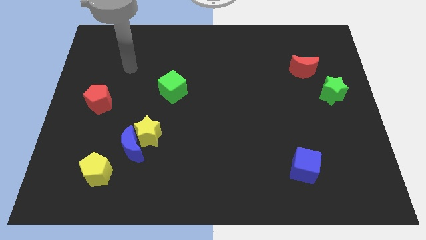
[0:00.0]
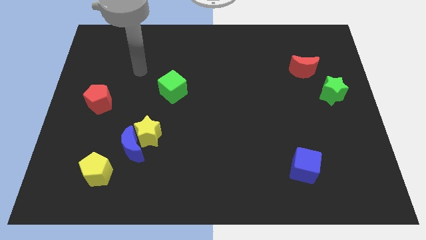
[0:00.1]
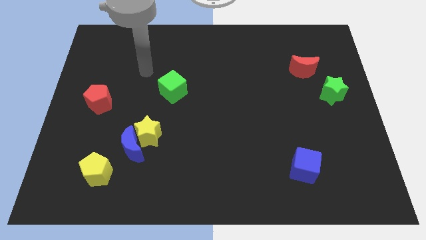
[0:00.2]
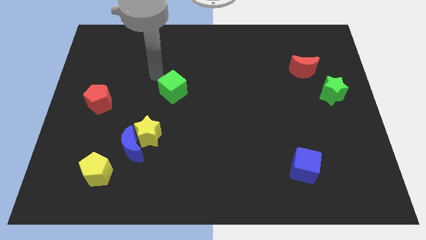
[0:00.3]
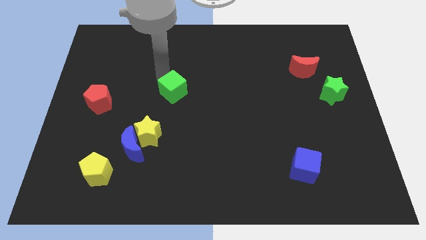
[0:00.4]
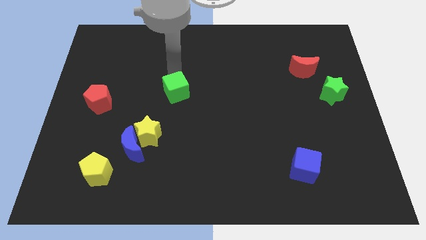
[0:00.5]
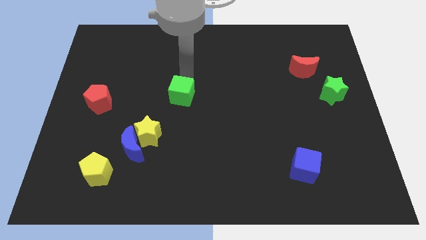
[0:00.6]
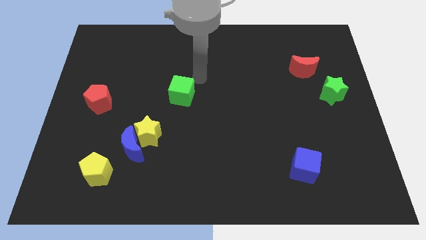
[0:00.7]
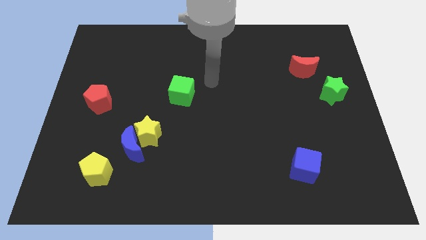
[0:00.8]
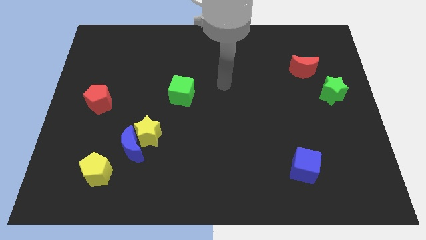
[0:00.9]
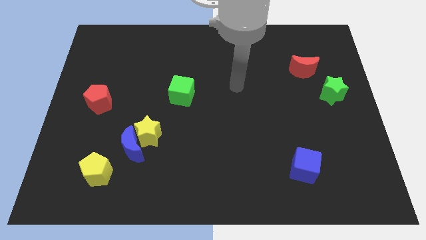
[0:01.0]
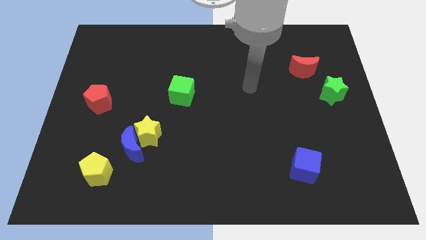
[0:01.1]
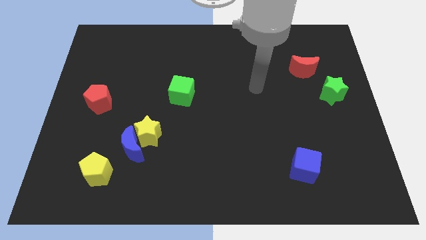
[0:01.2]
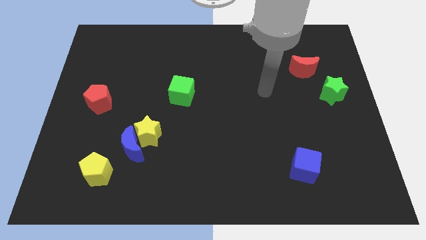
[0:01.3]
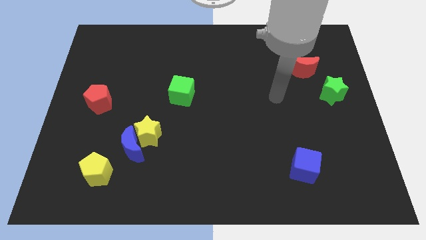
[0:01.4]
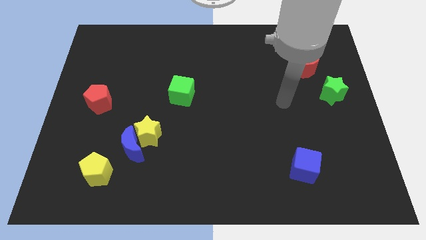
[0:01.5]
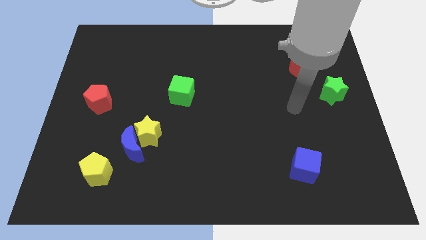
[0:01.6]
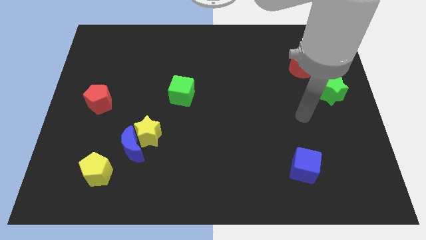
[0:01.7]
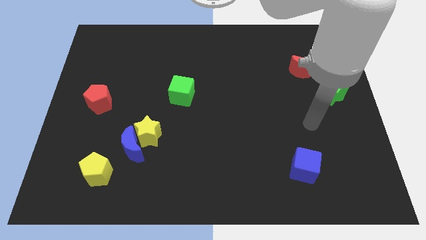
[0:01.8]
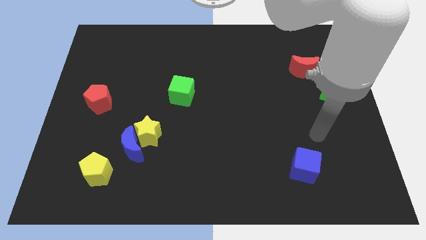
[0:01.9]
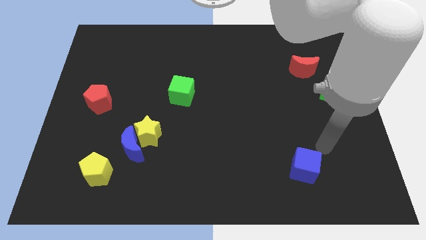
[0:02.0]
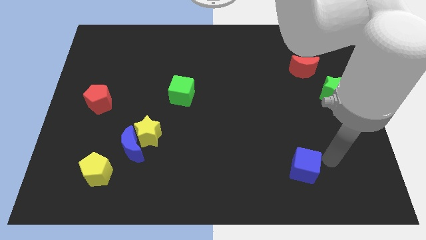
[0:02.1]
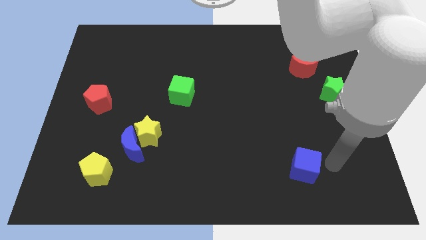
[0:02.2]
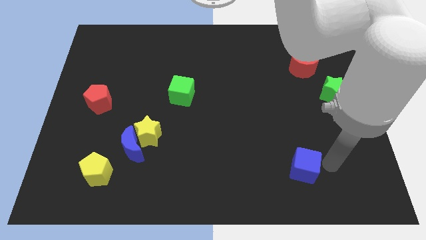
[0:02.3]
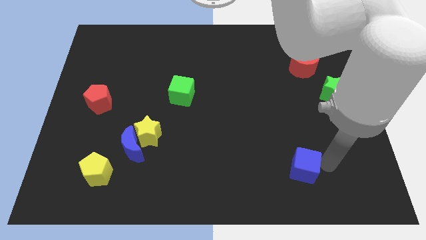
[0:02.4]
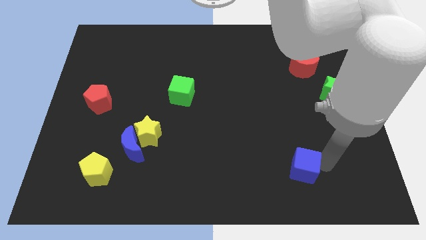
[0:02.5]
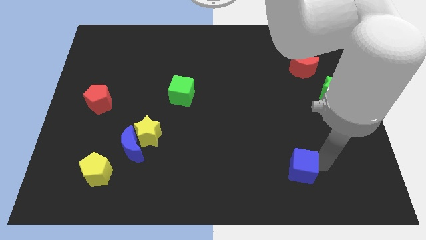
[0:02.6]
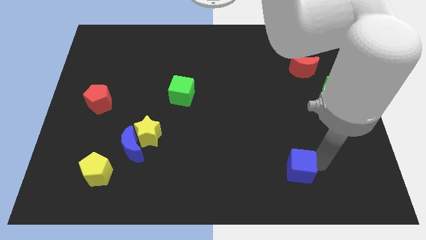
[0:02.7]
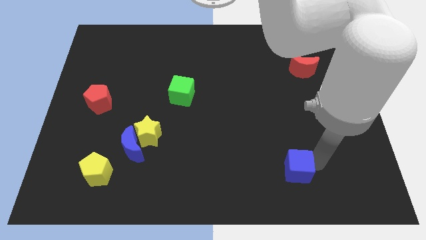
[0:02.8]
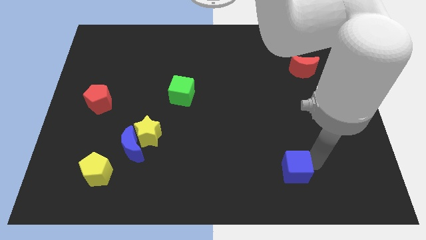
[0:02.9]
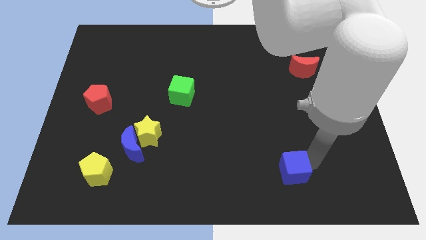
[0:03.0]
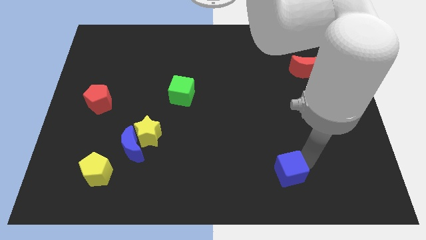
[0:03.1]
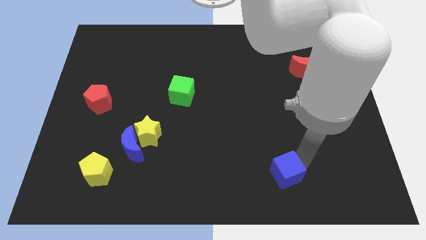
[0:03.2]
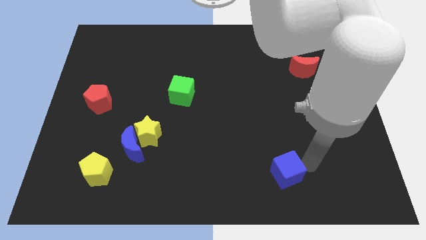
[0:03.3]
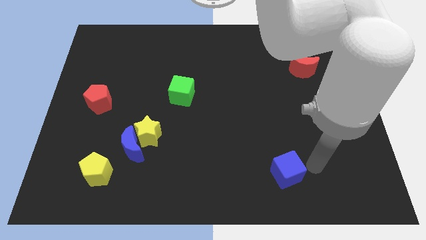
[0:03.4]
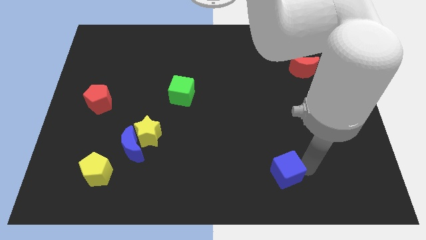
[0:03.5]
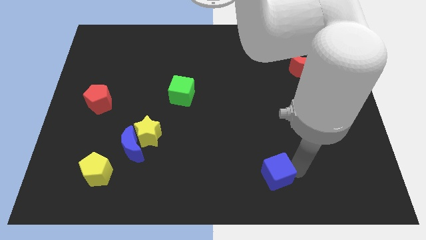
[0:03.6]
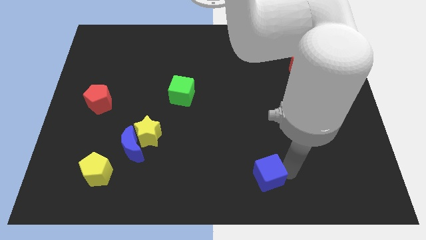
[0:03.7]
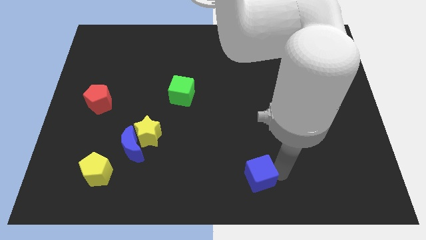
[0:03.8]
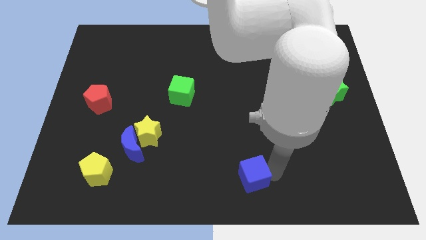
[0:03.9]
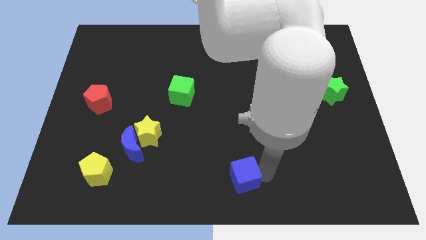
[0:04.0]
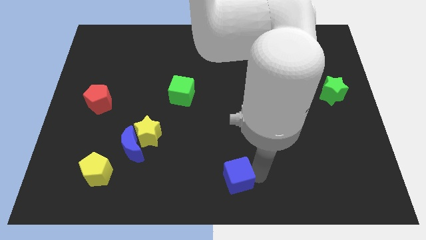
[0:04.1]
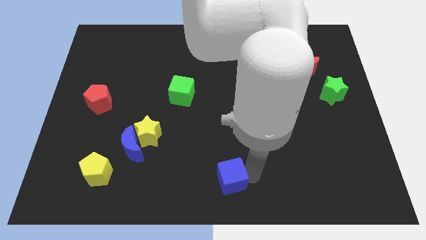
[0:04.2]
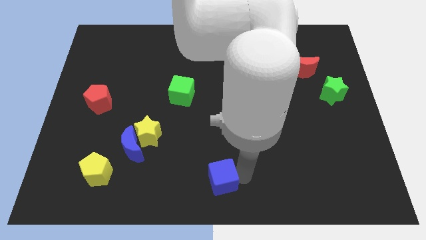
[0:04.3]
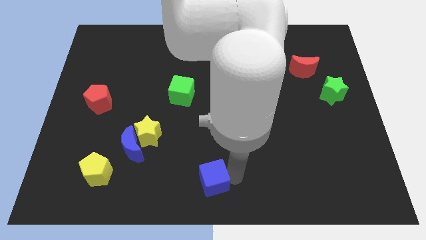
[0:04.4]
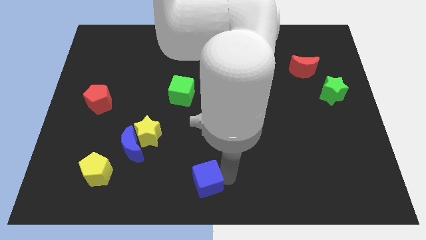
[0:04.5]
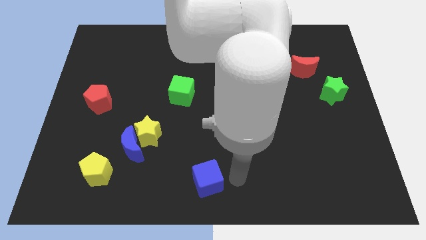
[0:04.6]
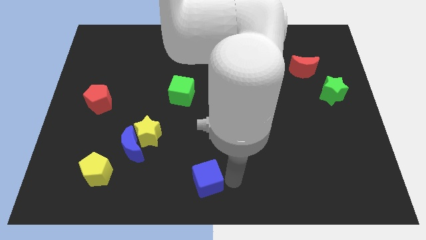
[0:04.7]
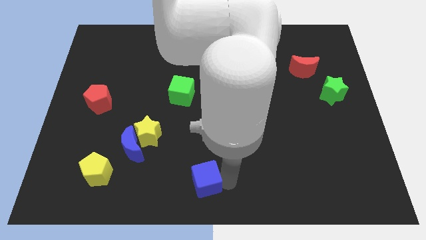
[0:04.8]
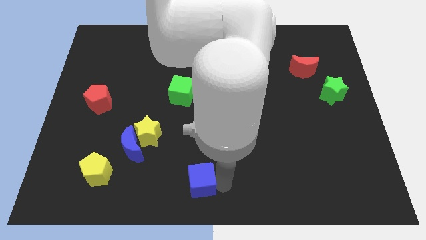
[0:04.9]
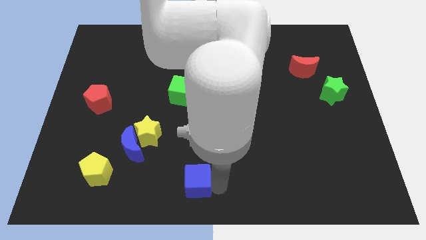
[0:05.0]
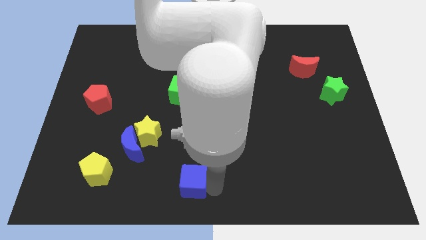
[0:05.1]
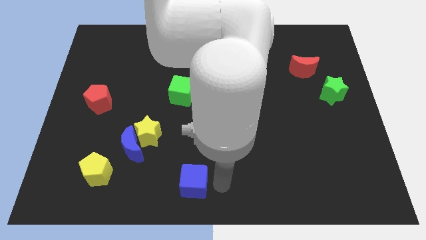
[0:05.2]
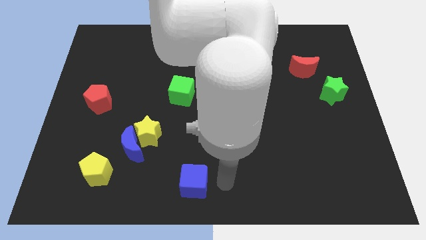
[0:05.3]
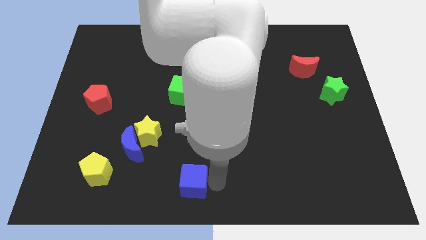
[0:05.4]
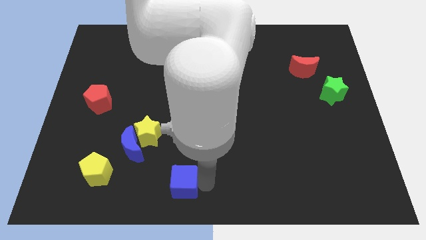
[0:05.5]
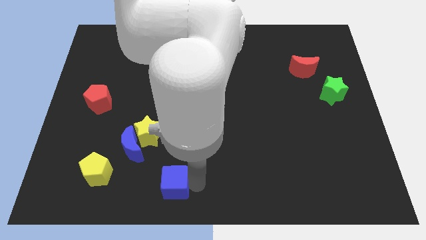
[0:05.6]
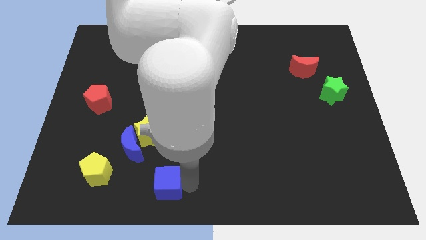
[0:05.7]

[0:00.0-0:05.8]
put the blue cube to the right of the yellow pentagon

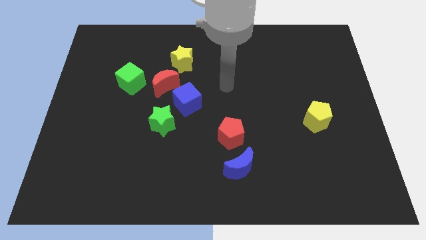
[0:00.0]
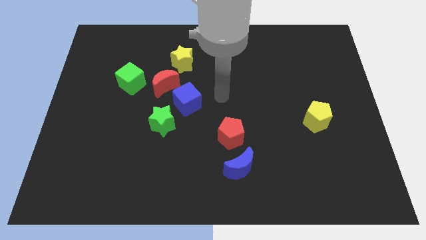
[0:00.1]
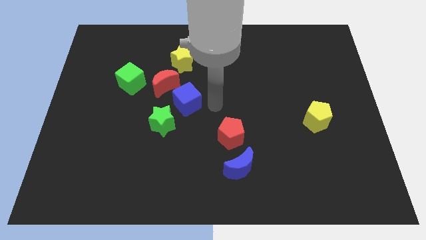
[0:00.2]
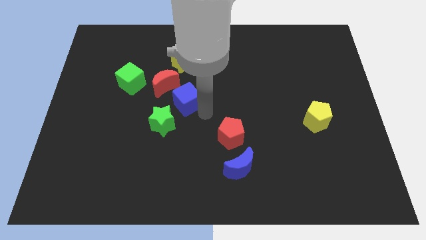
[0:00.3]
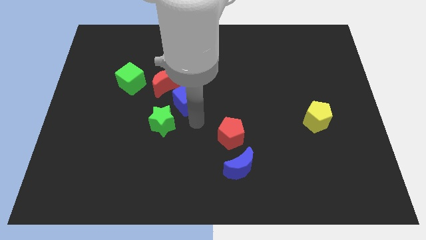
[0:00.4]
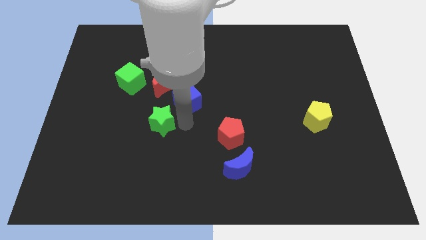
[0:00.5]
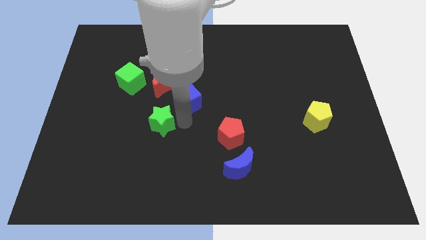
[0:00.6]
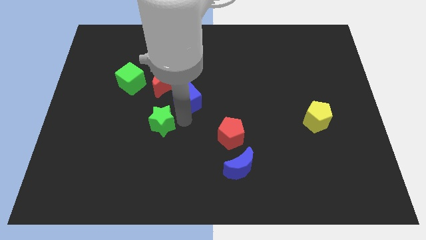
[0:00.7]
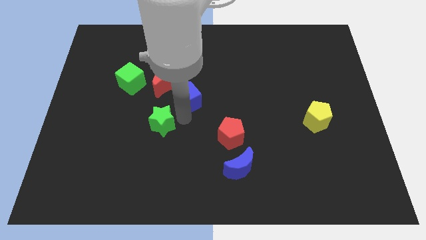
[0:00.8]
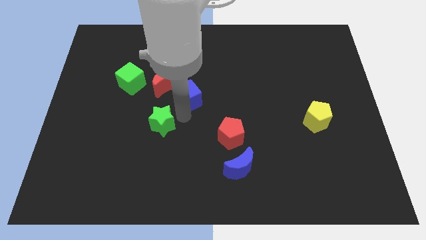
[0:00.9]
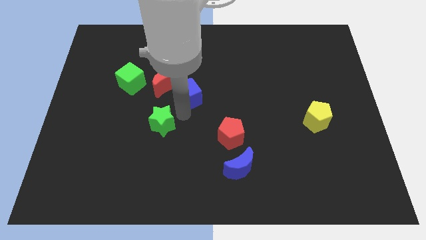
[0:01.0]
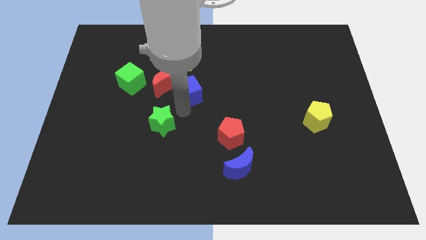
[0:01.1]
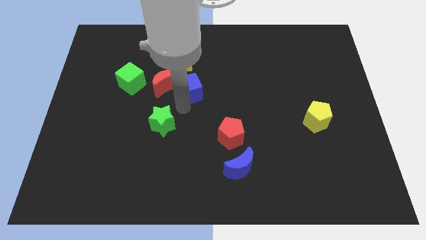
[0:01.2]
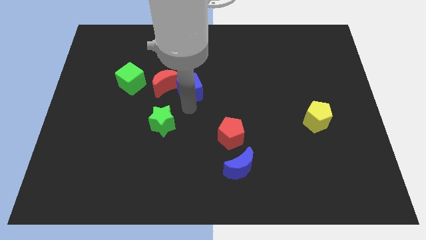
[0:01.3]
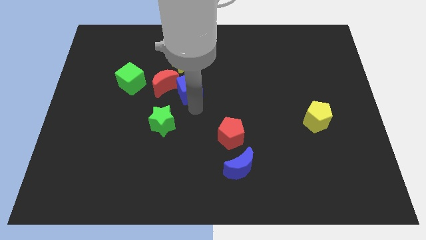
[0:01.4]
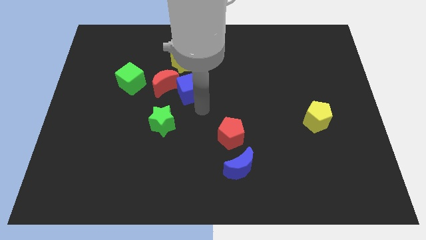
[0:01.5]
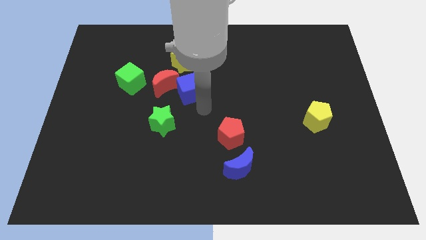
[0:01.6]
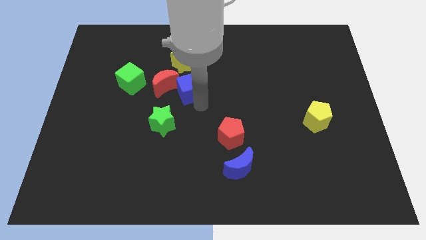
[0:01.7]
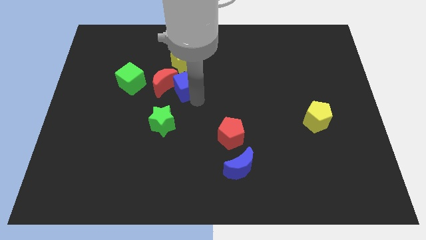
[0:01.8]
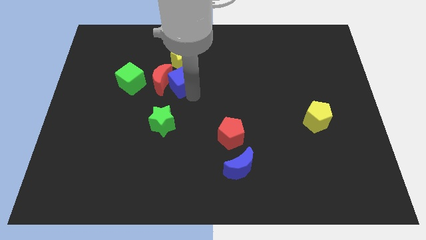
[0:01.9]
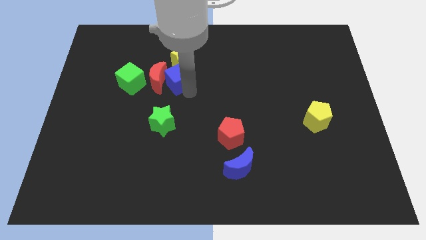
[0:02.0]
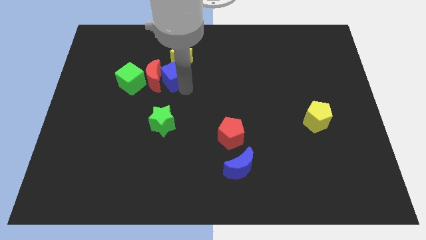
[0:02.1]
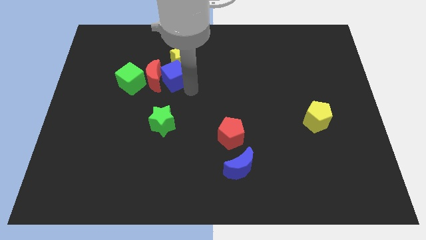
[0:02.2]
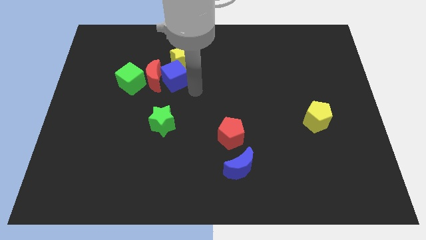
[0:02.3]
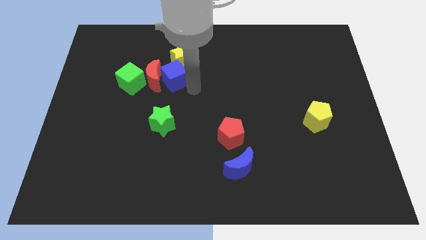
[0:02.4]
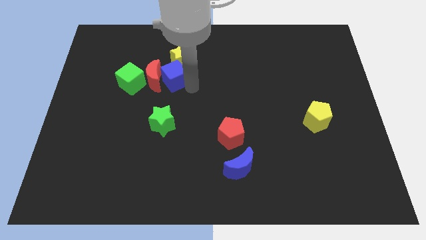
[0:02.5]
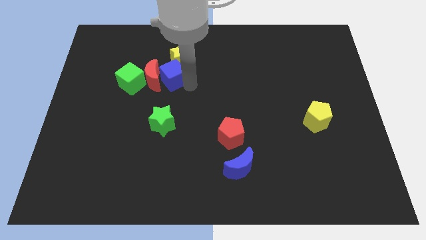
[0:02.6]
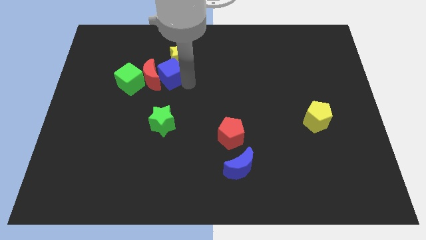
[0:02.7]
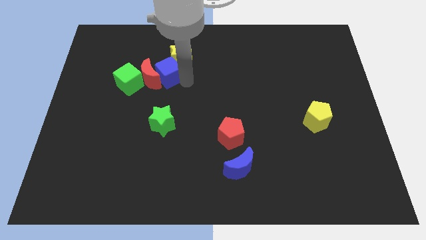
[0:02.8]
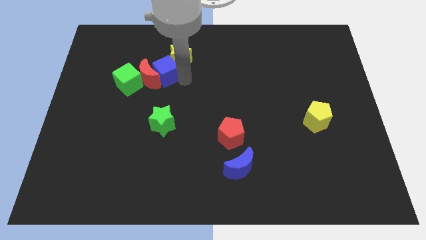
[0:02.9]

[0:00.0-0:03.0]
slide the blue cube to the top right side of the green cube
